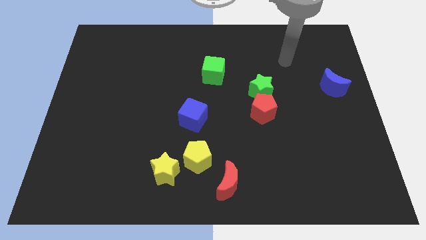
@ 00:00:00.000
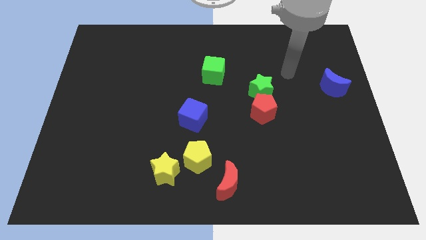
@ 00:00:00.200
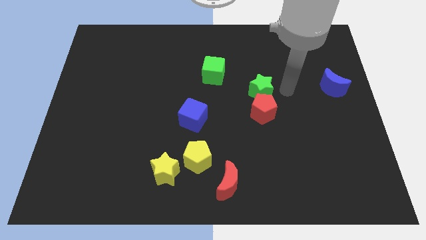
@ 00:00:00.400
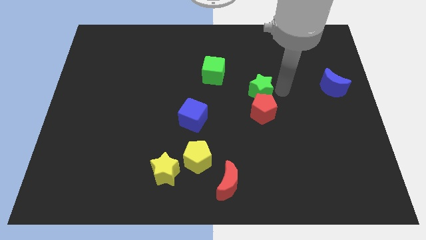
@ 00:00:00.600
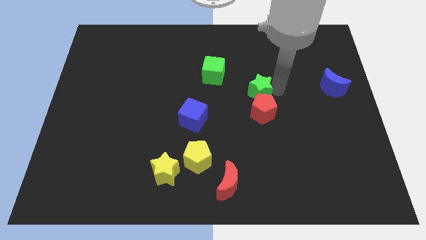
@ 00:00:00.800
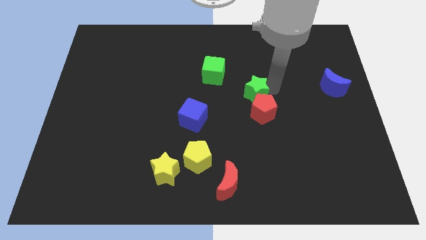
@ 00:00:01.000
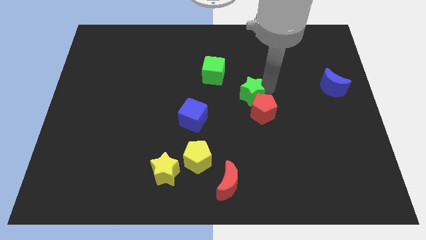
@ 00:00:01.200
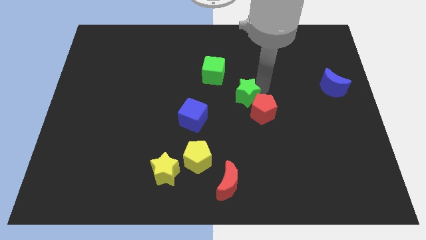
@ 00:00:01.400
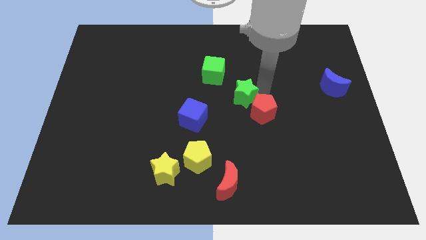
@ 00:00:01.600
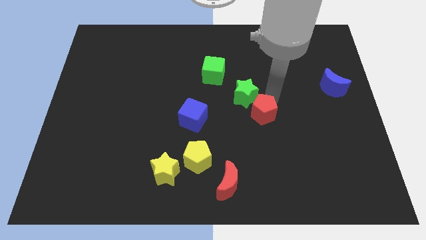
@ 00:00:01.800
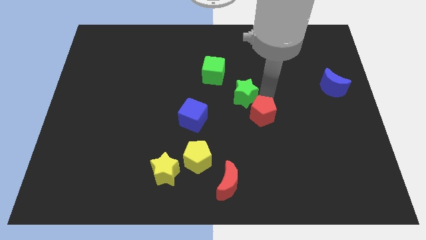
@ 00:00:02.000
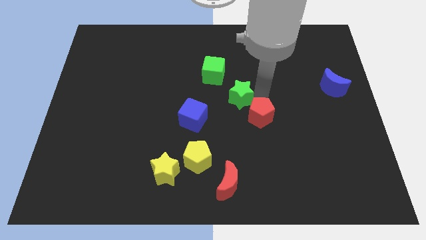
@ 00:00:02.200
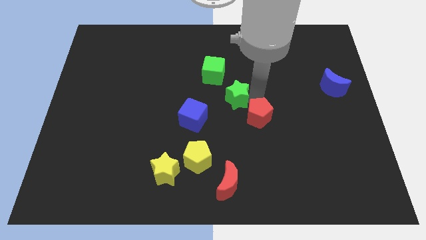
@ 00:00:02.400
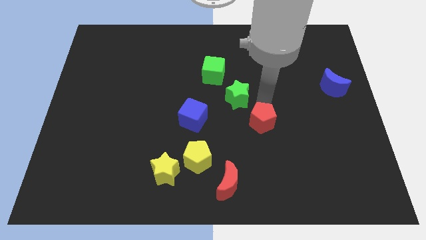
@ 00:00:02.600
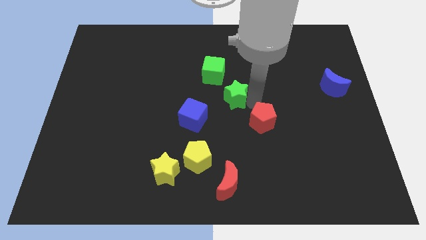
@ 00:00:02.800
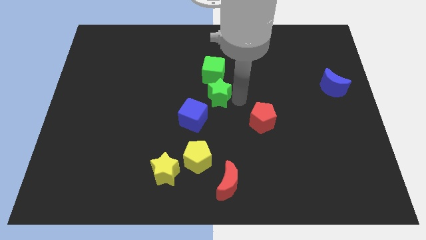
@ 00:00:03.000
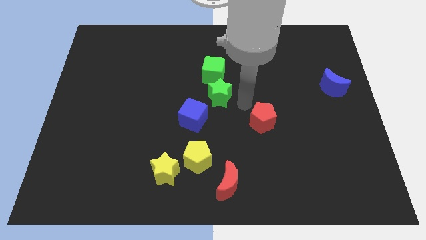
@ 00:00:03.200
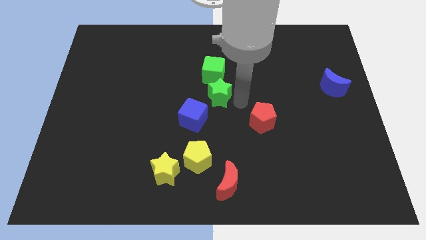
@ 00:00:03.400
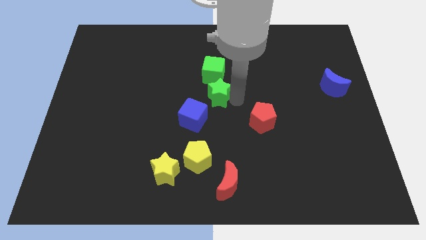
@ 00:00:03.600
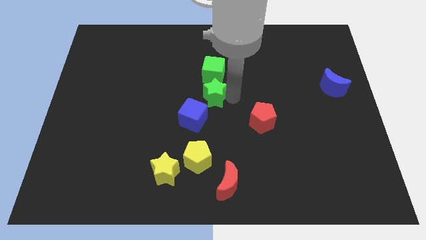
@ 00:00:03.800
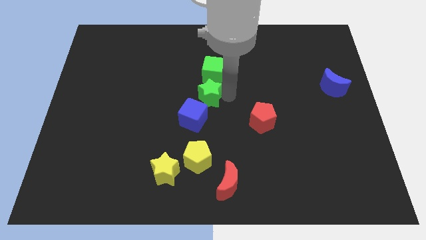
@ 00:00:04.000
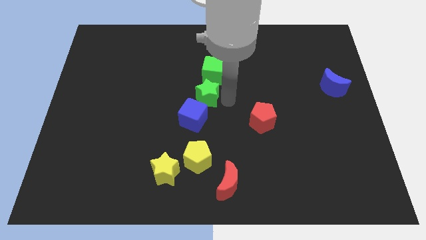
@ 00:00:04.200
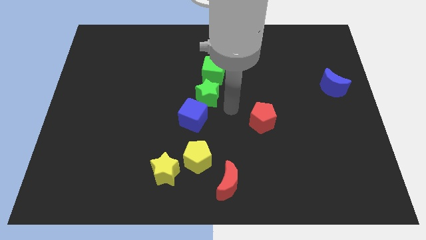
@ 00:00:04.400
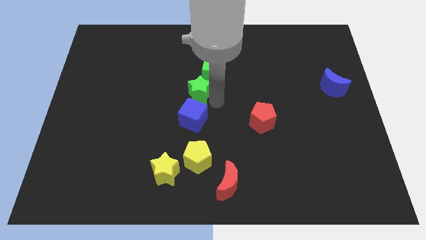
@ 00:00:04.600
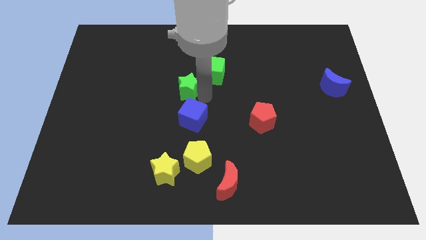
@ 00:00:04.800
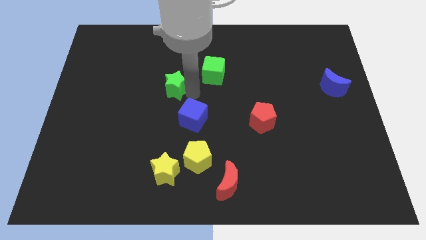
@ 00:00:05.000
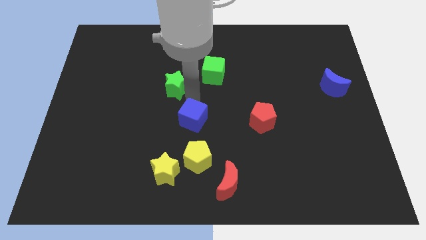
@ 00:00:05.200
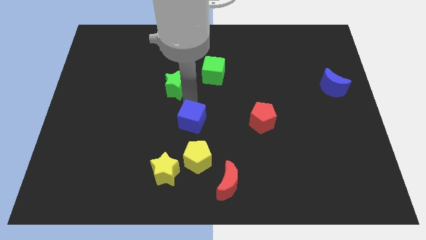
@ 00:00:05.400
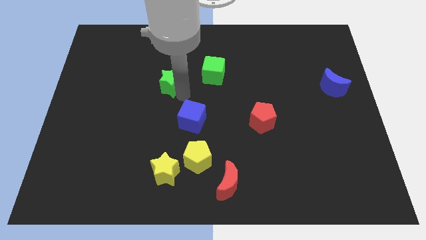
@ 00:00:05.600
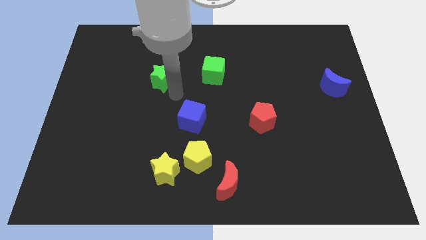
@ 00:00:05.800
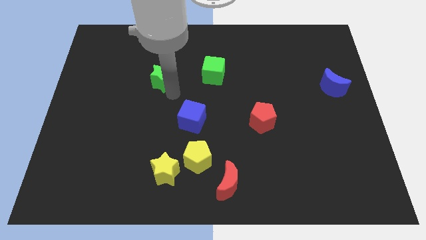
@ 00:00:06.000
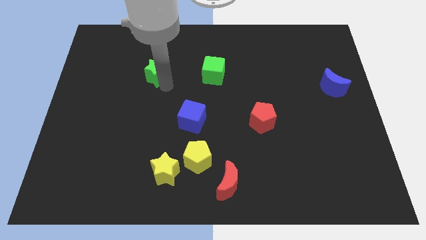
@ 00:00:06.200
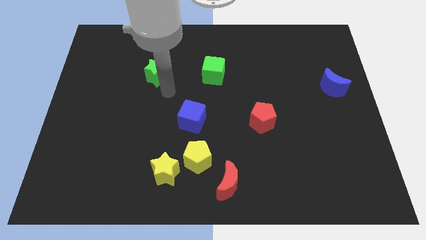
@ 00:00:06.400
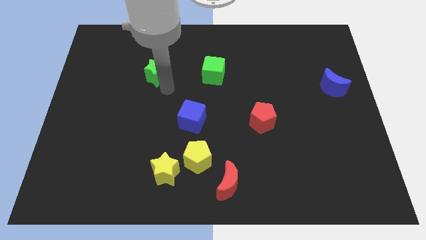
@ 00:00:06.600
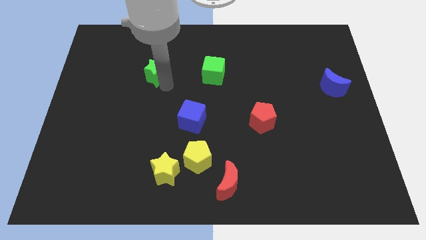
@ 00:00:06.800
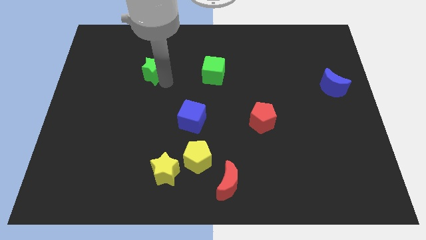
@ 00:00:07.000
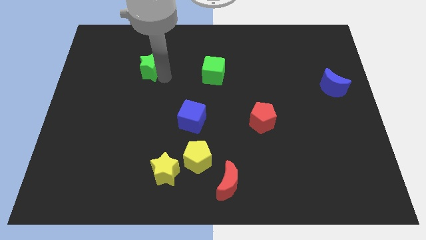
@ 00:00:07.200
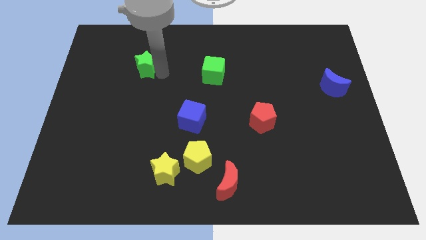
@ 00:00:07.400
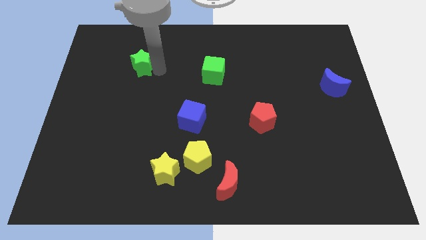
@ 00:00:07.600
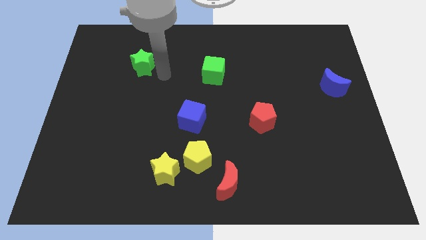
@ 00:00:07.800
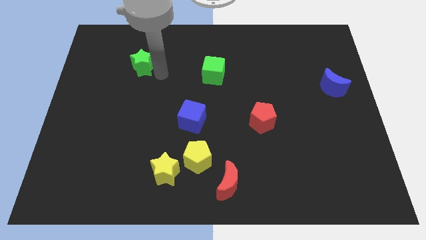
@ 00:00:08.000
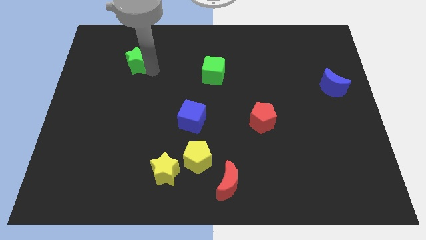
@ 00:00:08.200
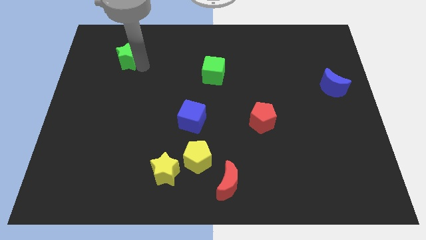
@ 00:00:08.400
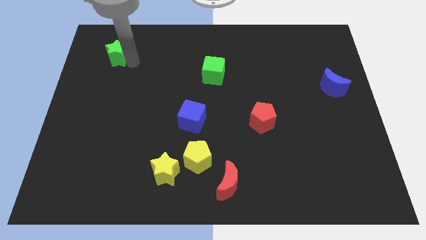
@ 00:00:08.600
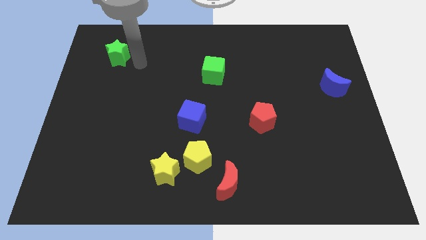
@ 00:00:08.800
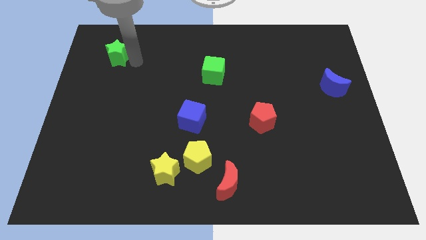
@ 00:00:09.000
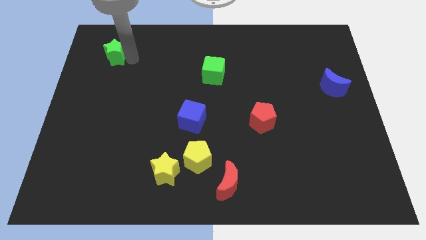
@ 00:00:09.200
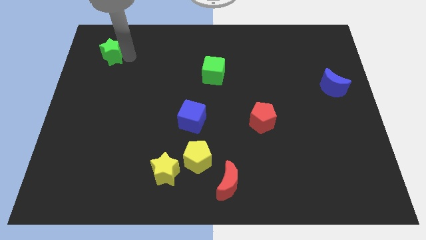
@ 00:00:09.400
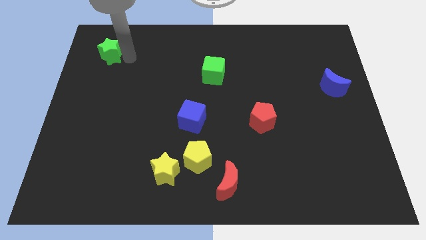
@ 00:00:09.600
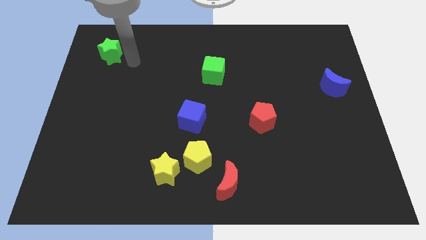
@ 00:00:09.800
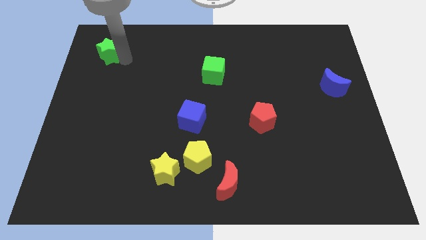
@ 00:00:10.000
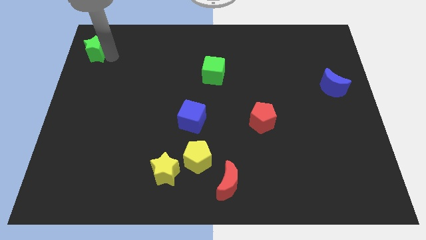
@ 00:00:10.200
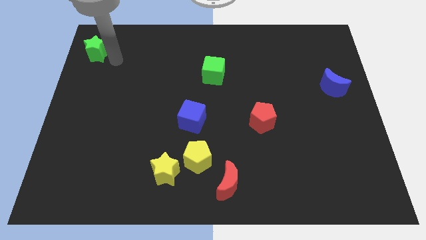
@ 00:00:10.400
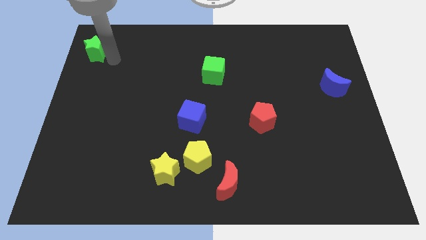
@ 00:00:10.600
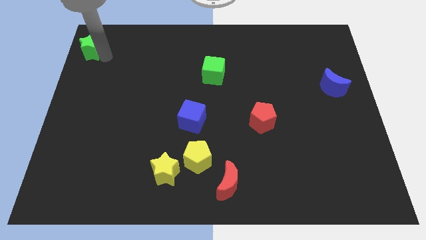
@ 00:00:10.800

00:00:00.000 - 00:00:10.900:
push the green star to the top left corner
